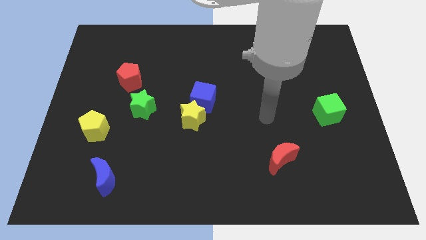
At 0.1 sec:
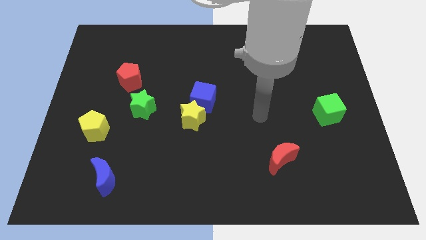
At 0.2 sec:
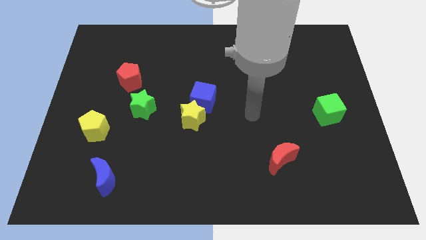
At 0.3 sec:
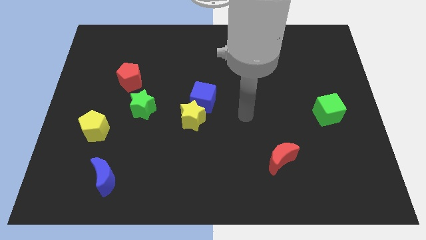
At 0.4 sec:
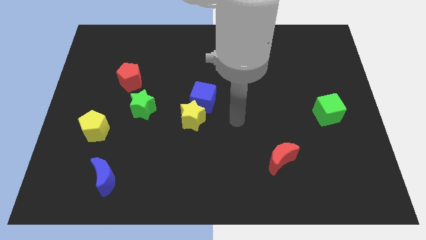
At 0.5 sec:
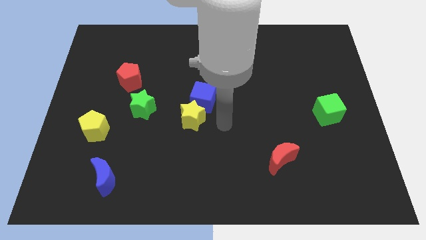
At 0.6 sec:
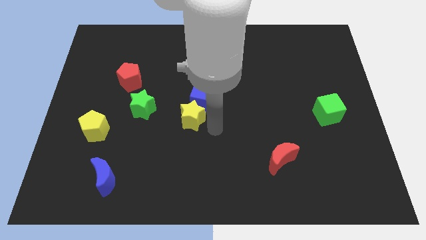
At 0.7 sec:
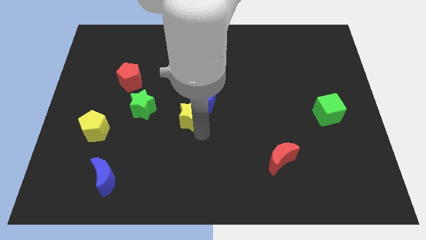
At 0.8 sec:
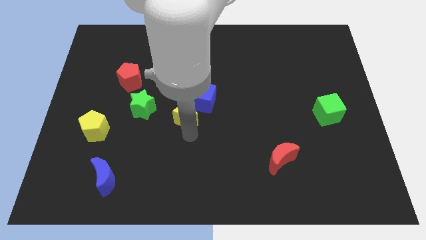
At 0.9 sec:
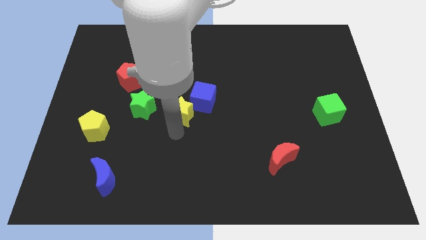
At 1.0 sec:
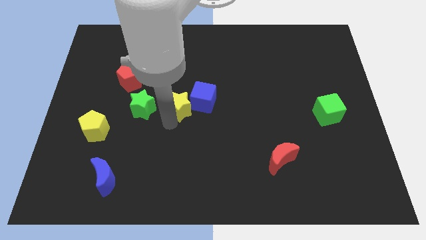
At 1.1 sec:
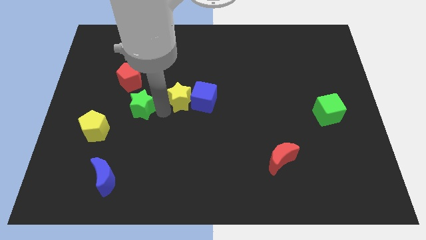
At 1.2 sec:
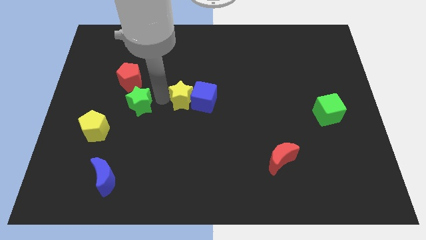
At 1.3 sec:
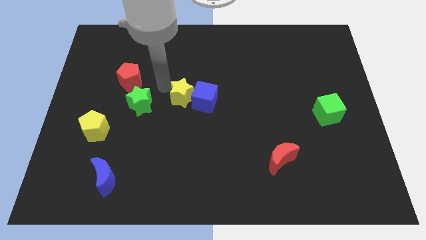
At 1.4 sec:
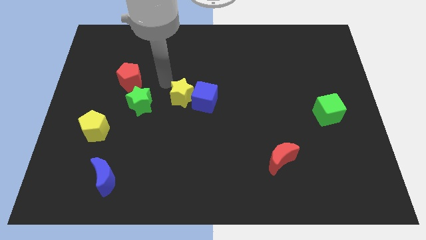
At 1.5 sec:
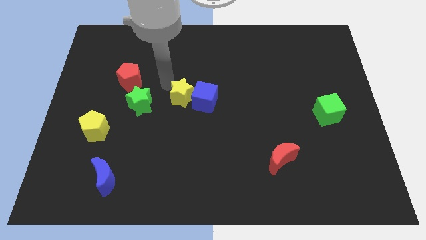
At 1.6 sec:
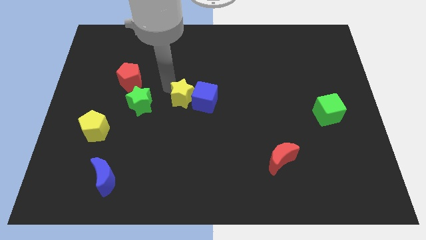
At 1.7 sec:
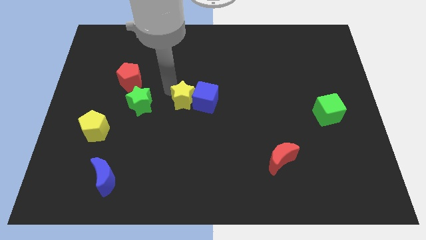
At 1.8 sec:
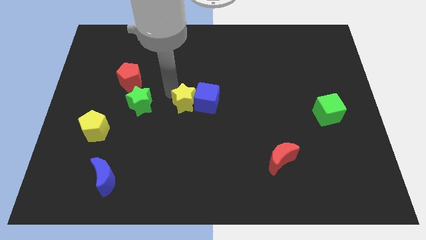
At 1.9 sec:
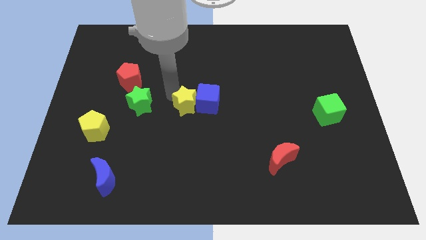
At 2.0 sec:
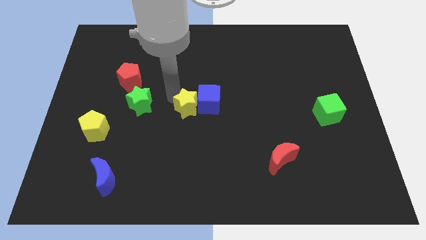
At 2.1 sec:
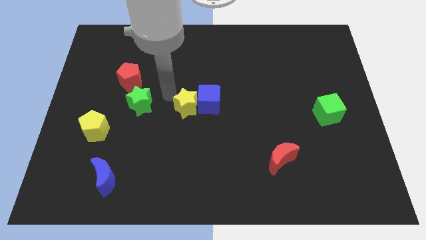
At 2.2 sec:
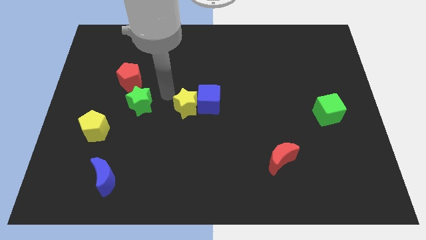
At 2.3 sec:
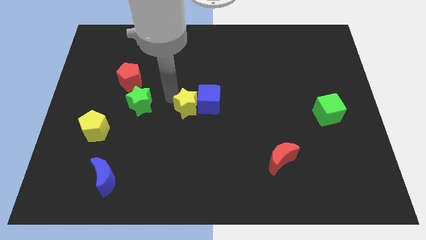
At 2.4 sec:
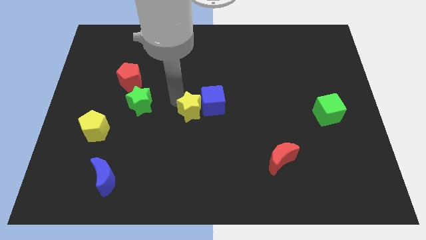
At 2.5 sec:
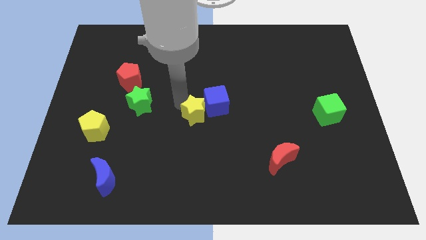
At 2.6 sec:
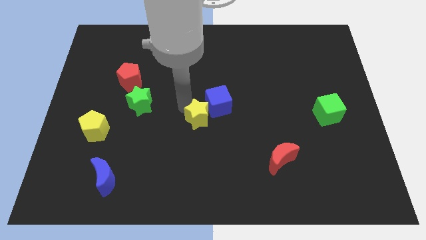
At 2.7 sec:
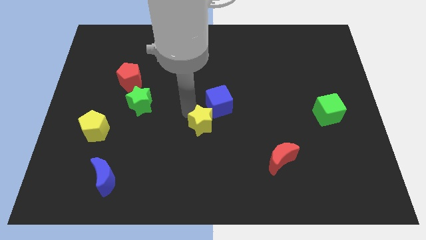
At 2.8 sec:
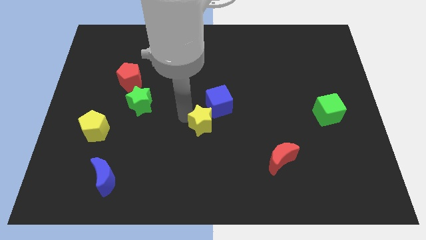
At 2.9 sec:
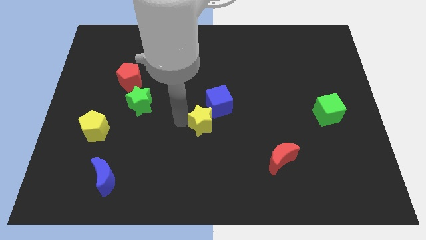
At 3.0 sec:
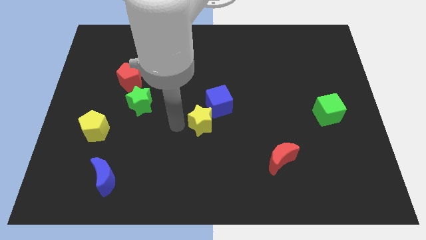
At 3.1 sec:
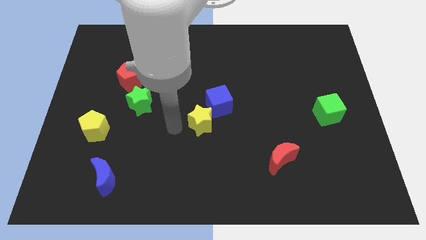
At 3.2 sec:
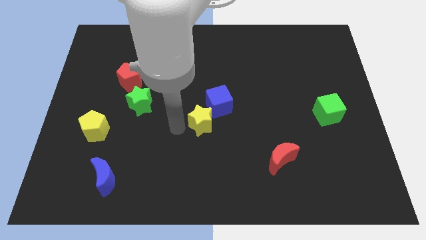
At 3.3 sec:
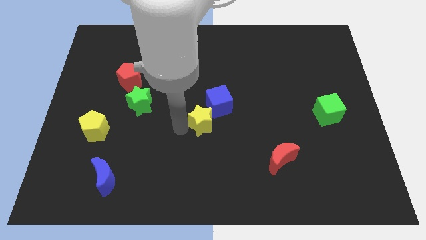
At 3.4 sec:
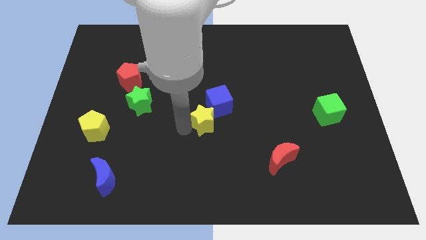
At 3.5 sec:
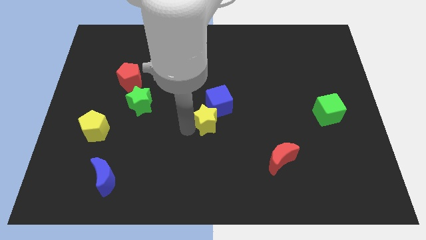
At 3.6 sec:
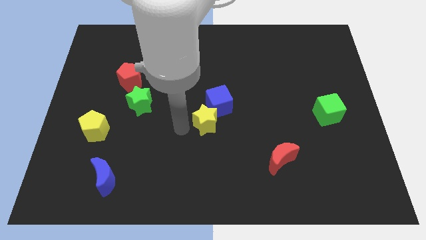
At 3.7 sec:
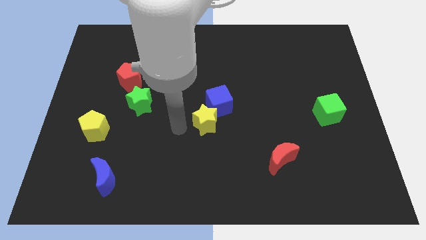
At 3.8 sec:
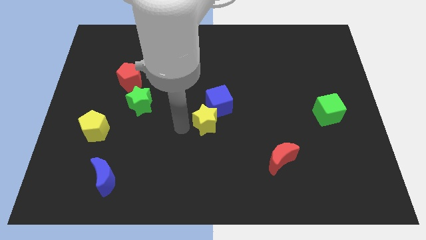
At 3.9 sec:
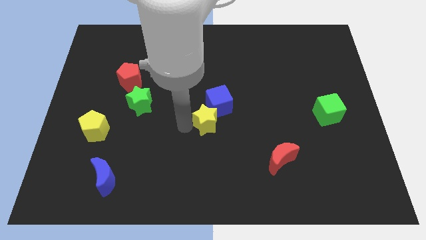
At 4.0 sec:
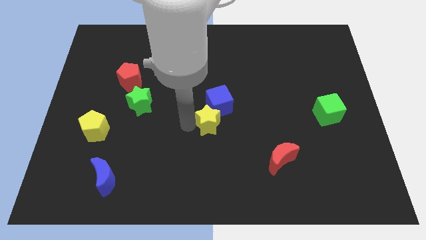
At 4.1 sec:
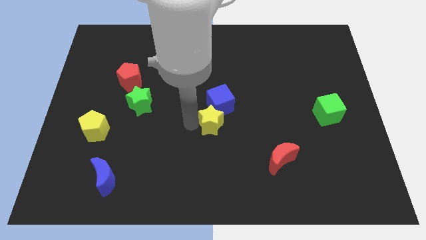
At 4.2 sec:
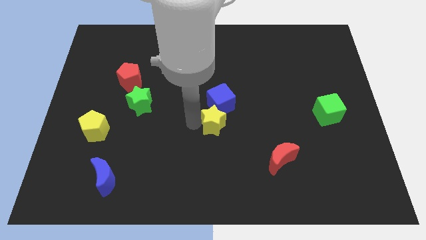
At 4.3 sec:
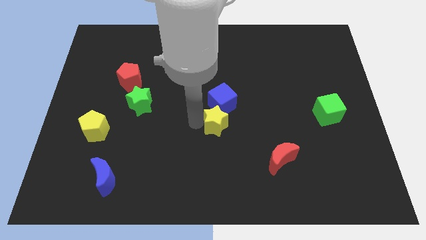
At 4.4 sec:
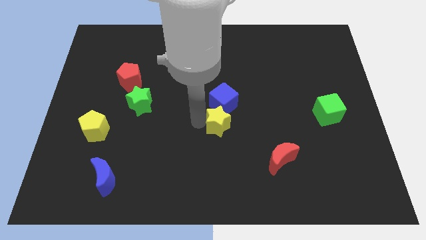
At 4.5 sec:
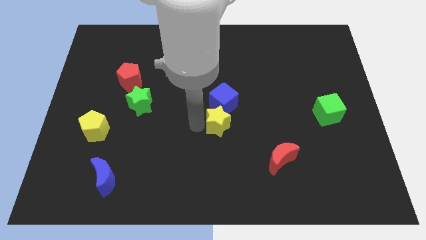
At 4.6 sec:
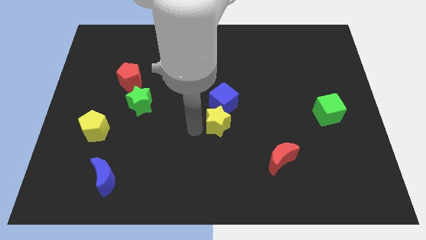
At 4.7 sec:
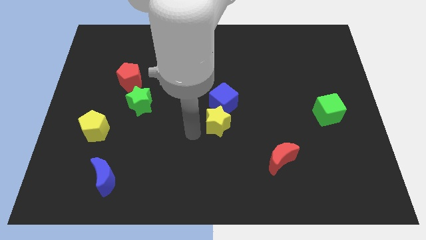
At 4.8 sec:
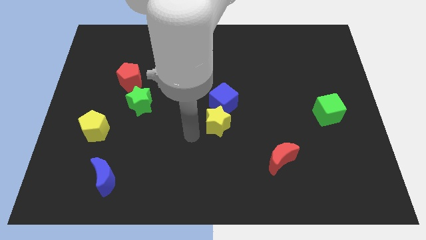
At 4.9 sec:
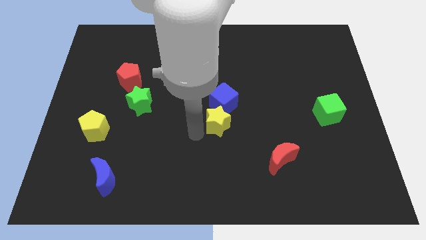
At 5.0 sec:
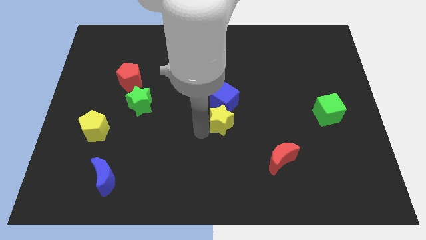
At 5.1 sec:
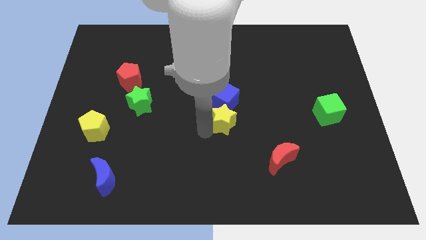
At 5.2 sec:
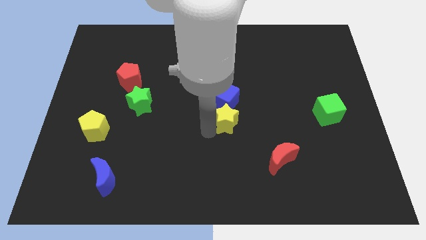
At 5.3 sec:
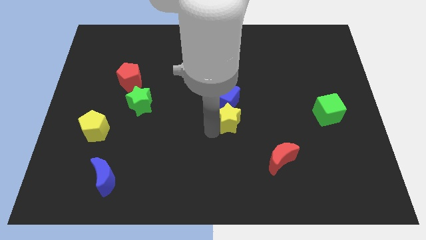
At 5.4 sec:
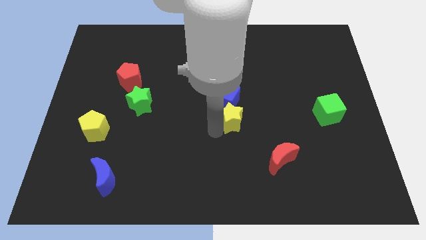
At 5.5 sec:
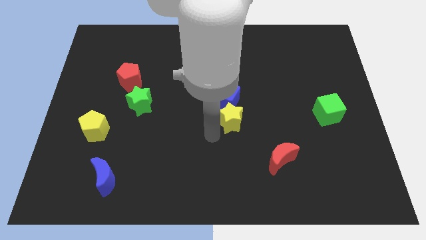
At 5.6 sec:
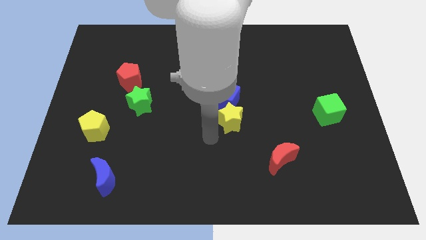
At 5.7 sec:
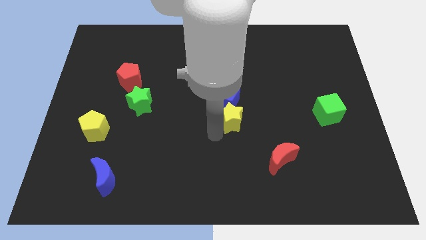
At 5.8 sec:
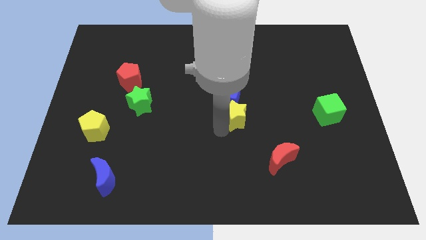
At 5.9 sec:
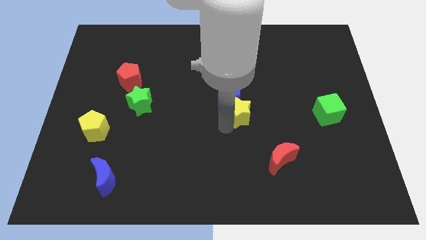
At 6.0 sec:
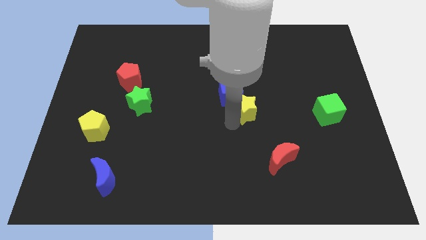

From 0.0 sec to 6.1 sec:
slightly move the yellow star up and to the right

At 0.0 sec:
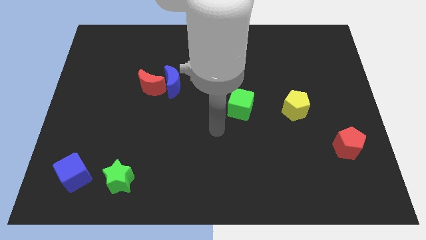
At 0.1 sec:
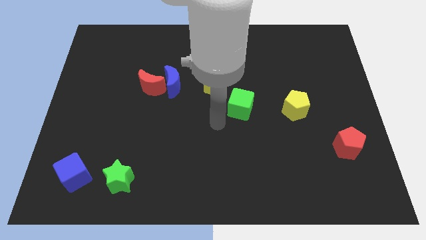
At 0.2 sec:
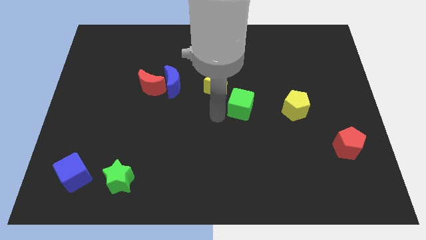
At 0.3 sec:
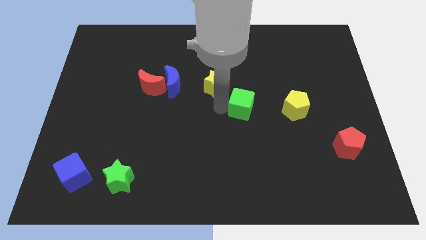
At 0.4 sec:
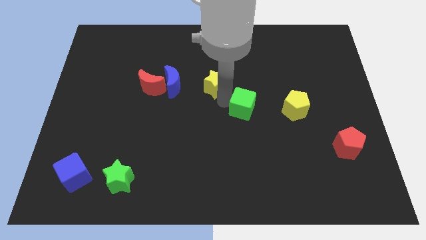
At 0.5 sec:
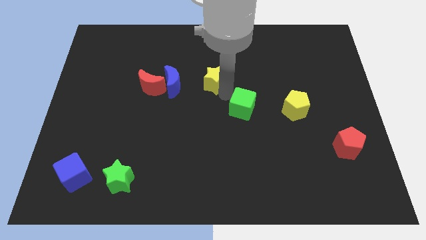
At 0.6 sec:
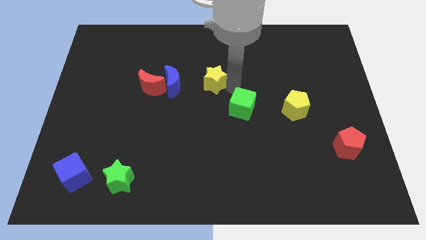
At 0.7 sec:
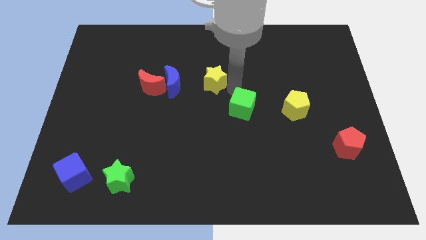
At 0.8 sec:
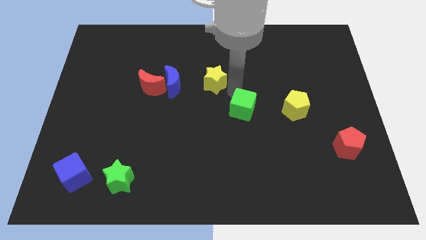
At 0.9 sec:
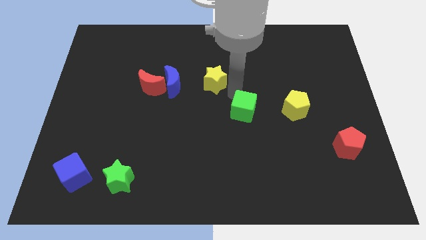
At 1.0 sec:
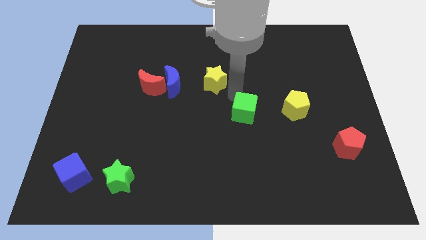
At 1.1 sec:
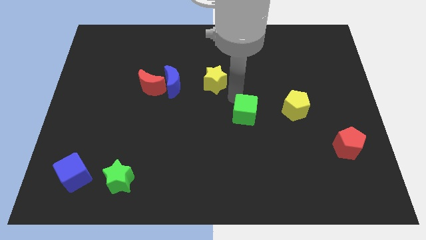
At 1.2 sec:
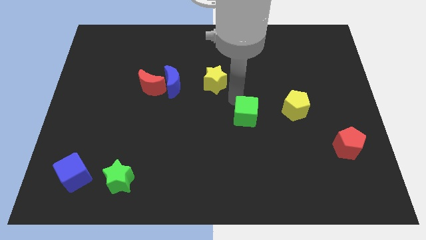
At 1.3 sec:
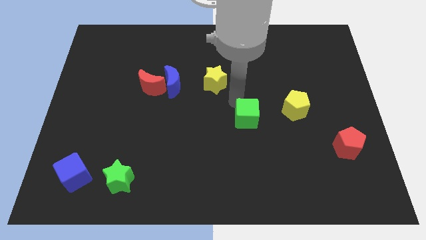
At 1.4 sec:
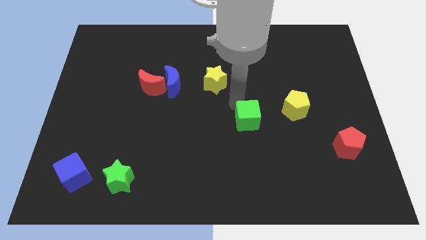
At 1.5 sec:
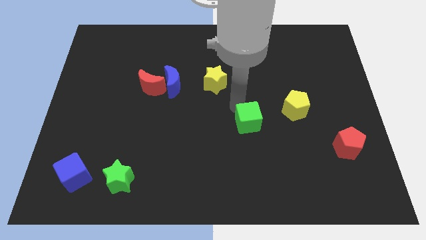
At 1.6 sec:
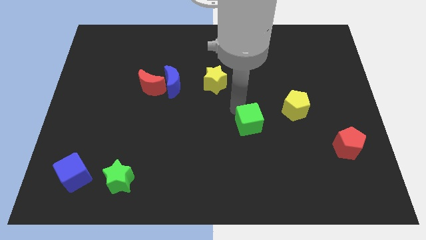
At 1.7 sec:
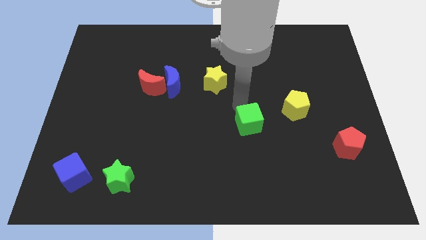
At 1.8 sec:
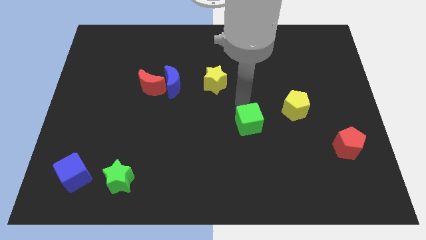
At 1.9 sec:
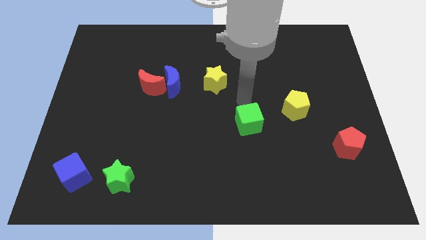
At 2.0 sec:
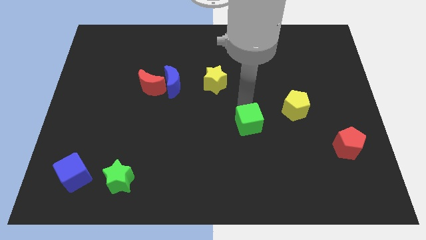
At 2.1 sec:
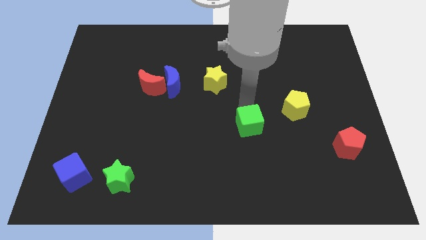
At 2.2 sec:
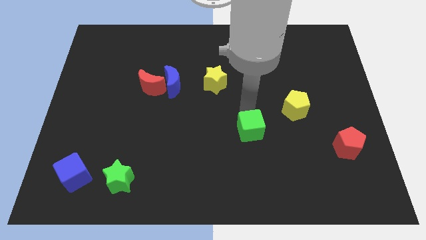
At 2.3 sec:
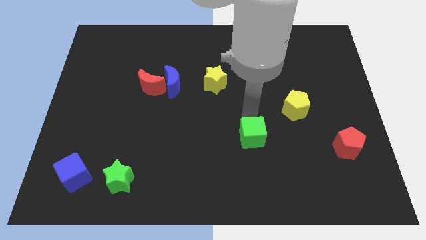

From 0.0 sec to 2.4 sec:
slightly push the green cube downwards
